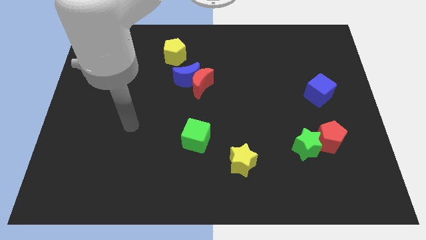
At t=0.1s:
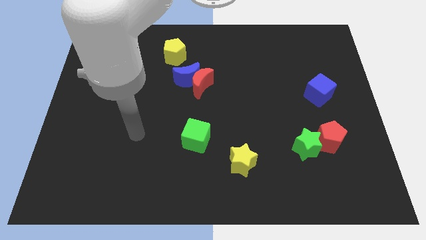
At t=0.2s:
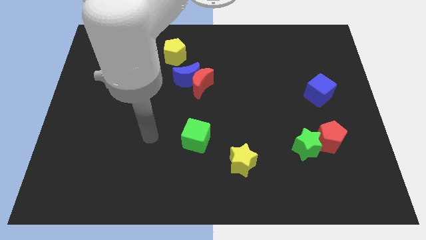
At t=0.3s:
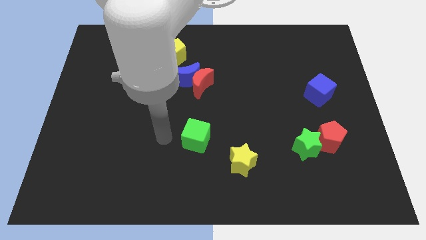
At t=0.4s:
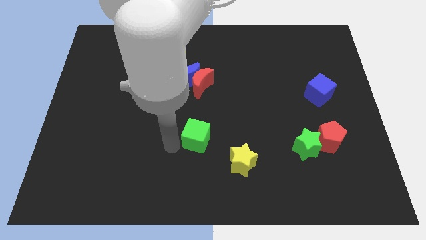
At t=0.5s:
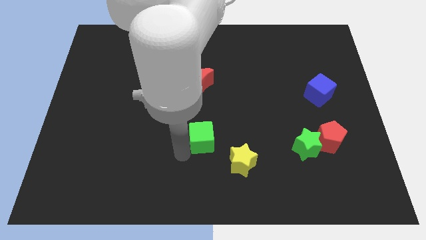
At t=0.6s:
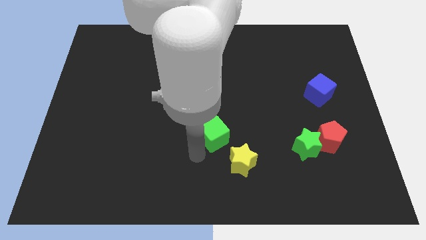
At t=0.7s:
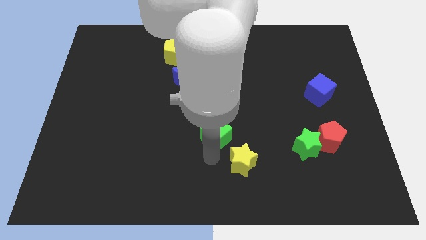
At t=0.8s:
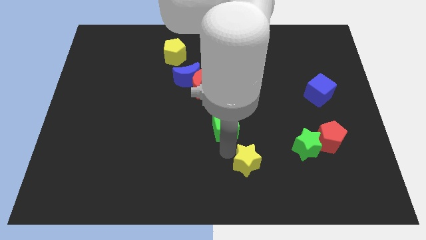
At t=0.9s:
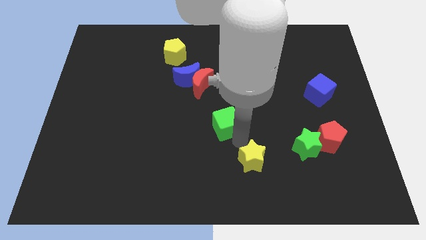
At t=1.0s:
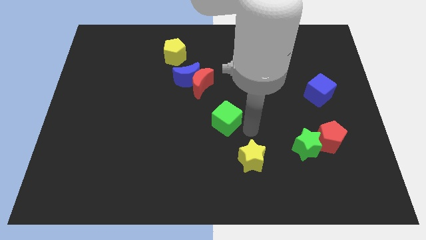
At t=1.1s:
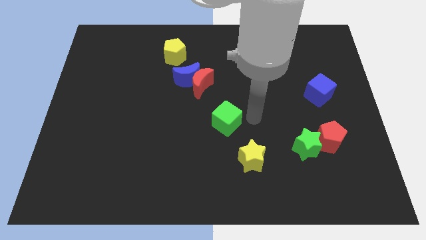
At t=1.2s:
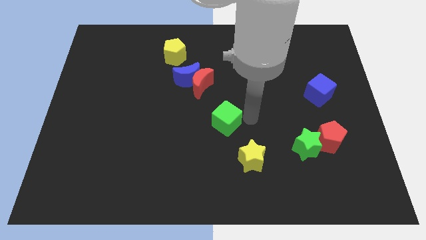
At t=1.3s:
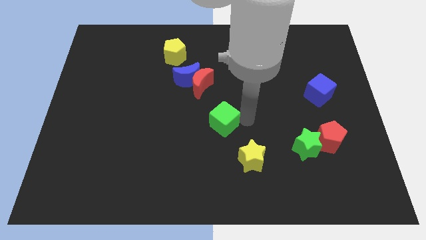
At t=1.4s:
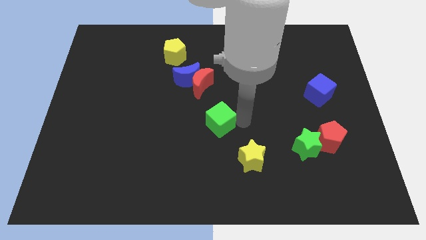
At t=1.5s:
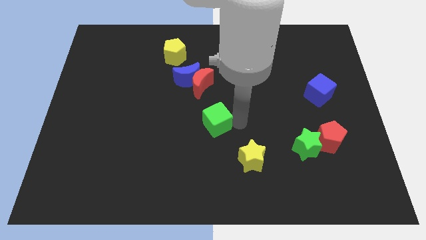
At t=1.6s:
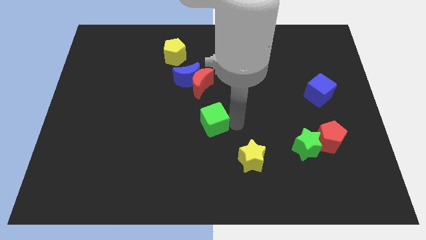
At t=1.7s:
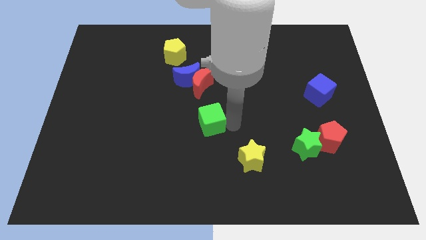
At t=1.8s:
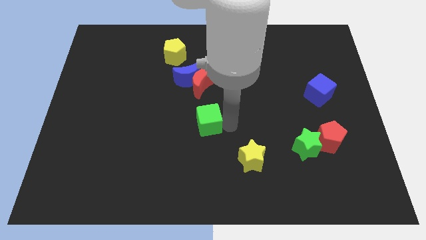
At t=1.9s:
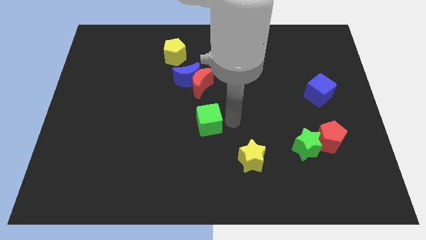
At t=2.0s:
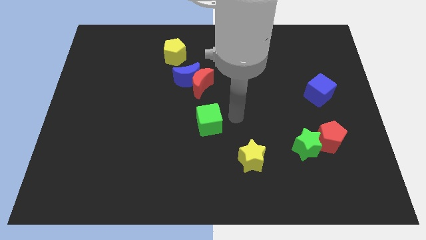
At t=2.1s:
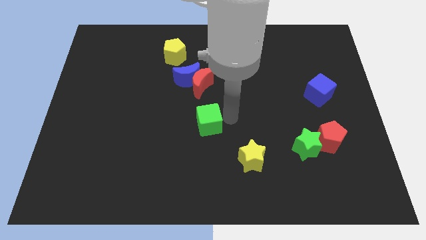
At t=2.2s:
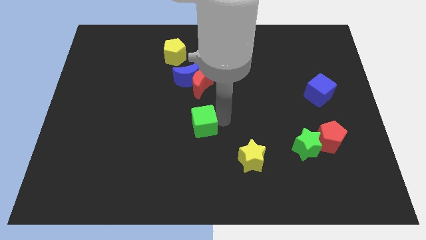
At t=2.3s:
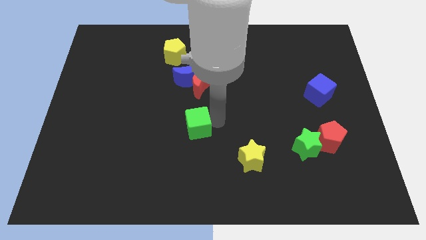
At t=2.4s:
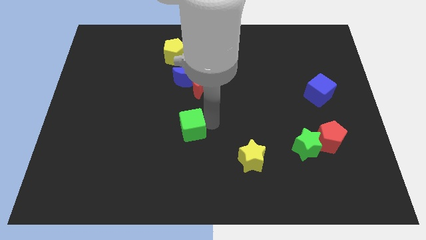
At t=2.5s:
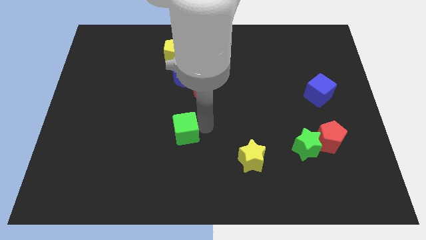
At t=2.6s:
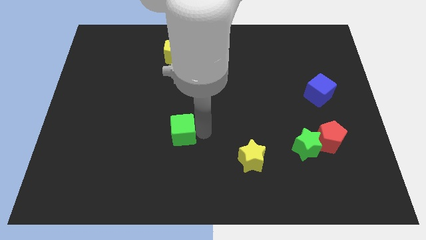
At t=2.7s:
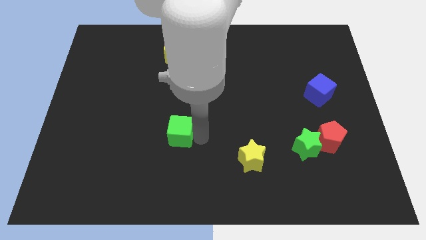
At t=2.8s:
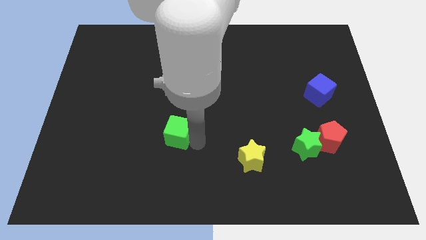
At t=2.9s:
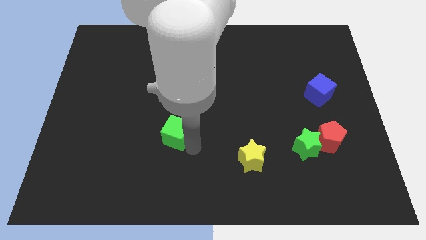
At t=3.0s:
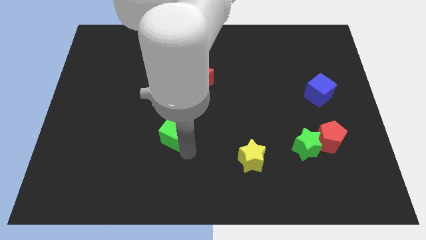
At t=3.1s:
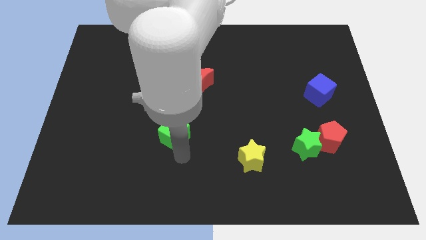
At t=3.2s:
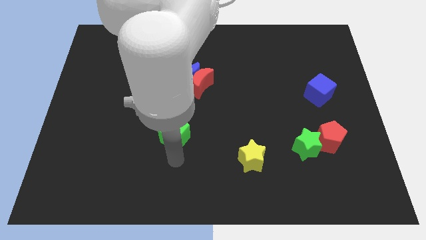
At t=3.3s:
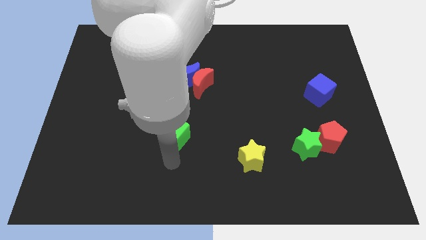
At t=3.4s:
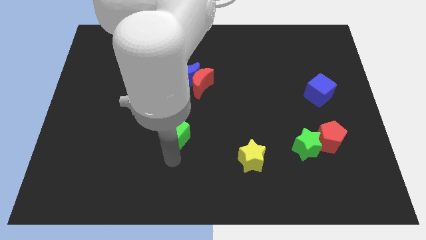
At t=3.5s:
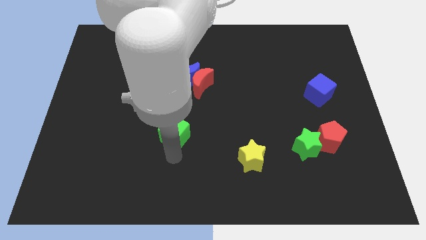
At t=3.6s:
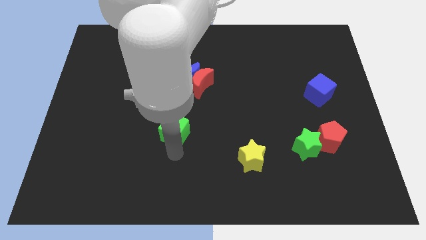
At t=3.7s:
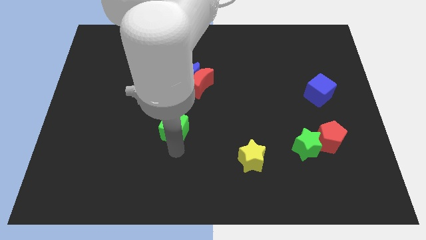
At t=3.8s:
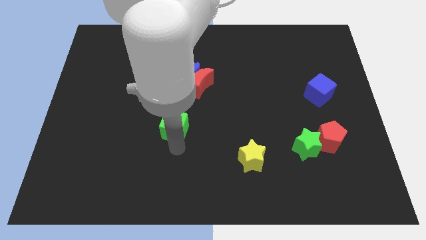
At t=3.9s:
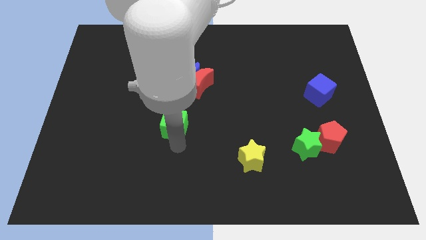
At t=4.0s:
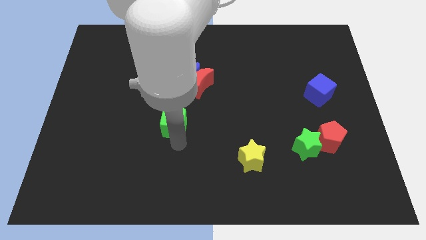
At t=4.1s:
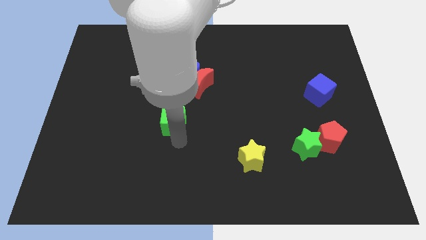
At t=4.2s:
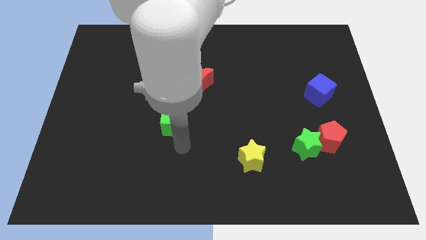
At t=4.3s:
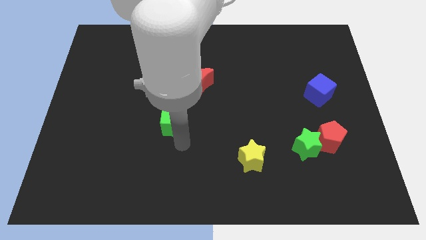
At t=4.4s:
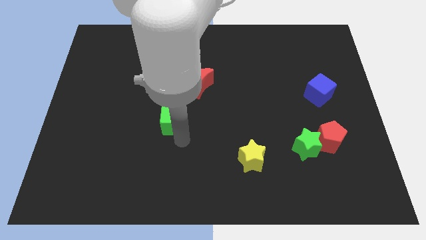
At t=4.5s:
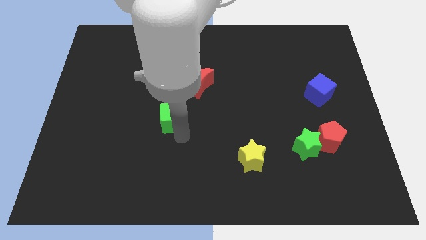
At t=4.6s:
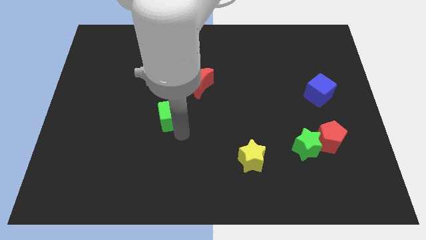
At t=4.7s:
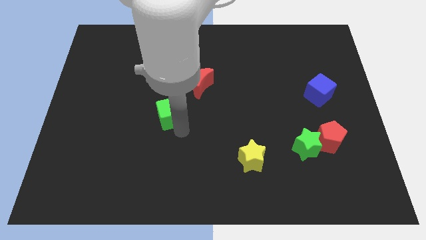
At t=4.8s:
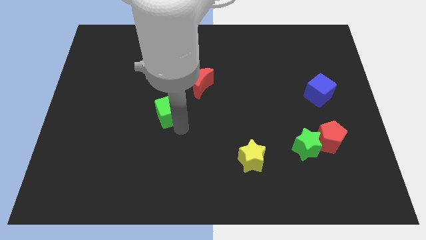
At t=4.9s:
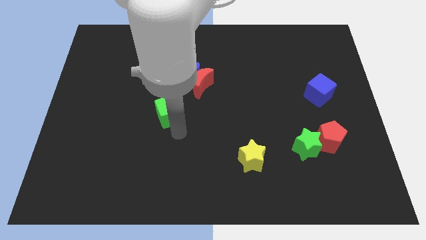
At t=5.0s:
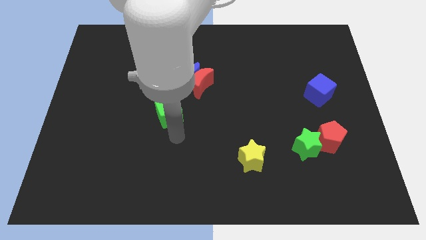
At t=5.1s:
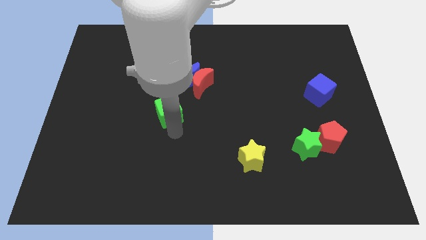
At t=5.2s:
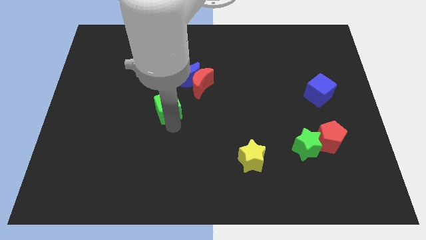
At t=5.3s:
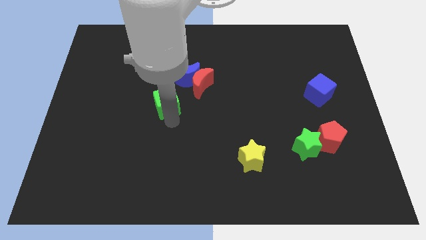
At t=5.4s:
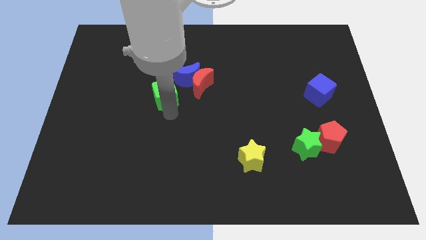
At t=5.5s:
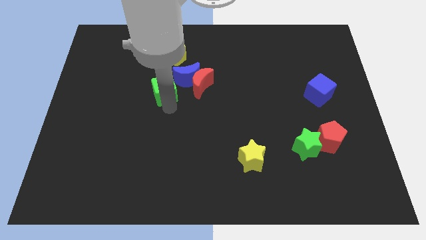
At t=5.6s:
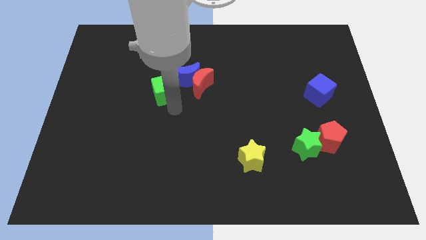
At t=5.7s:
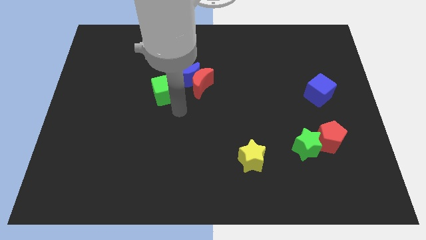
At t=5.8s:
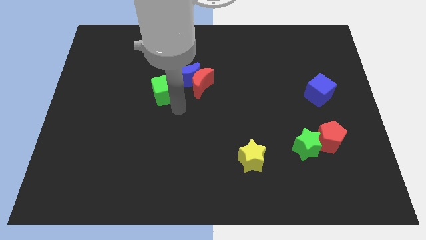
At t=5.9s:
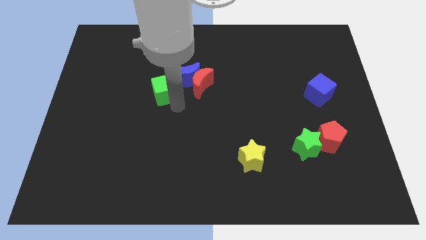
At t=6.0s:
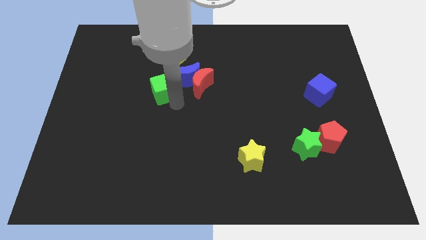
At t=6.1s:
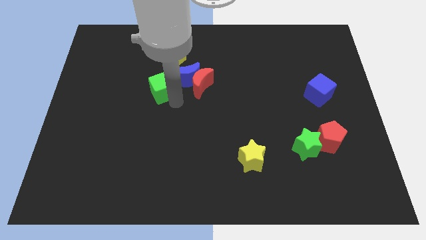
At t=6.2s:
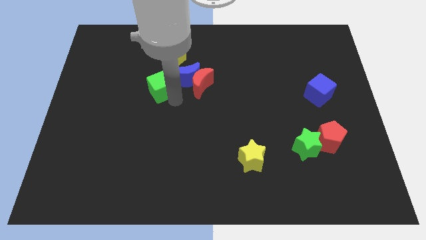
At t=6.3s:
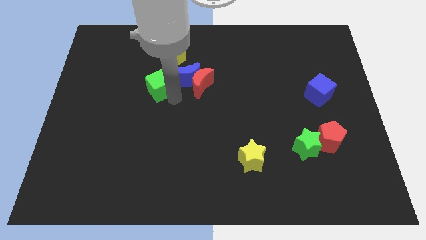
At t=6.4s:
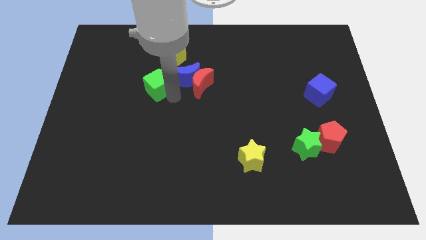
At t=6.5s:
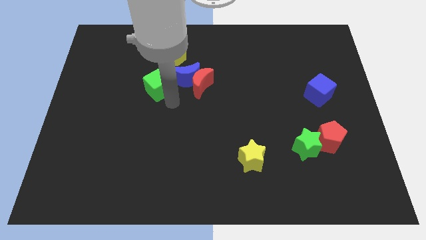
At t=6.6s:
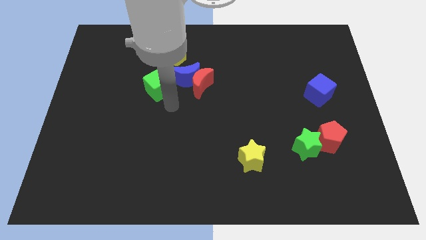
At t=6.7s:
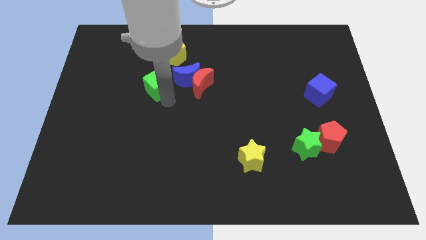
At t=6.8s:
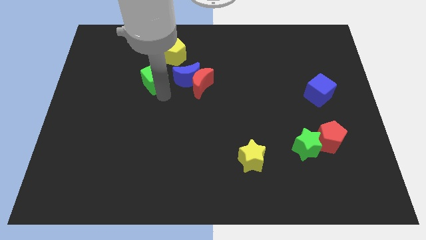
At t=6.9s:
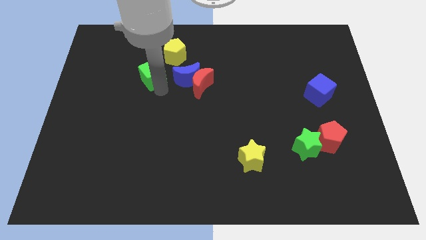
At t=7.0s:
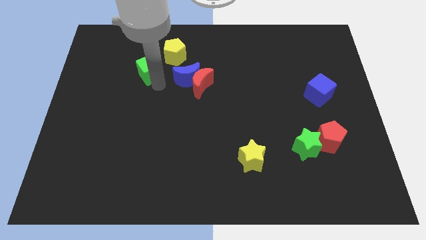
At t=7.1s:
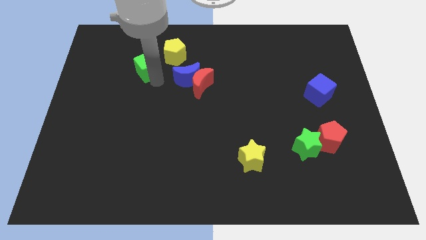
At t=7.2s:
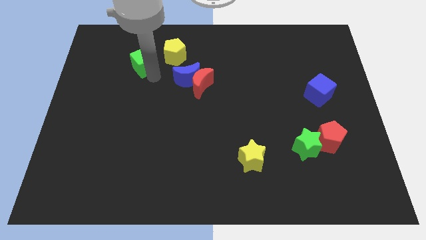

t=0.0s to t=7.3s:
move the green cube to the left of the yellow pentagon
